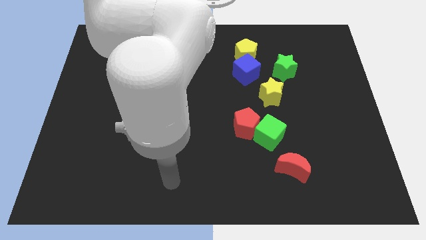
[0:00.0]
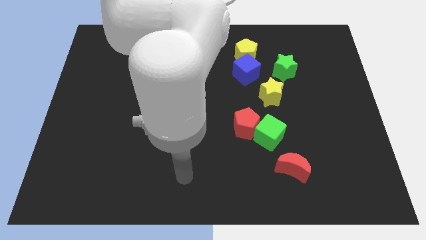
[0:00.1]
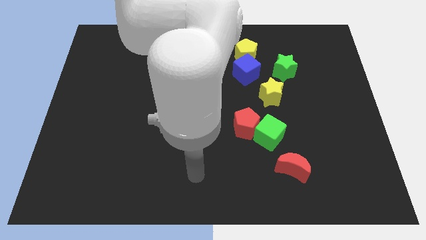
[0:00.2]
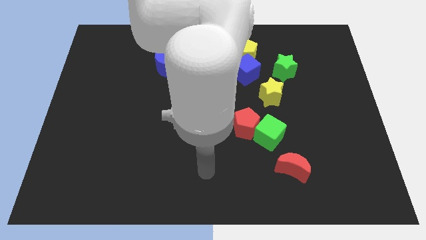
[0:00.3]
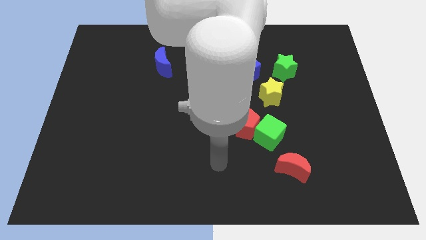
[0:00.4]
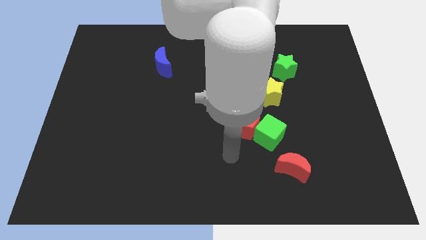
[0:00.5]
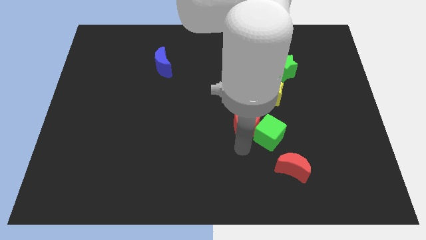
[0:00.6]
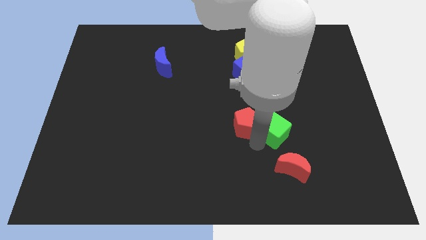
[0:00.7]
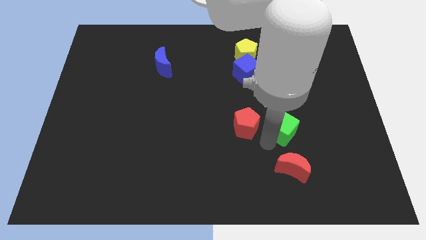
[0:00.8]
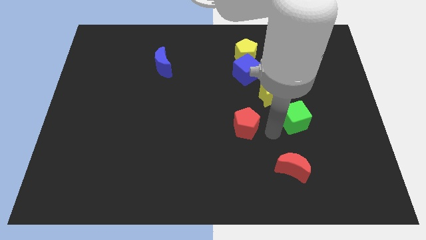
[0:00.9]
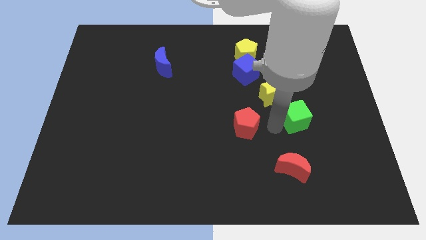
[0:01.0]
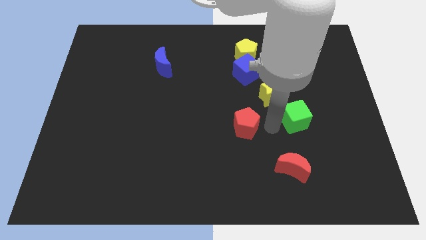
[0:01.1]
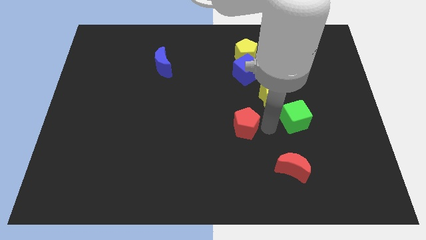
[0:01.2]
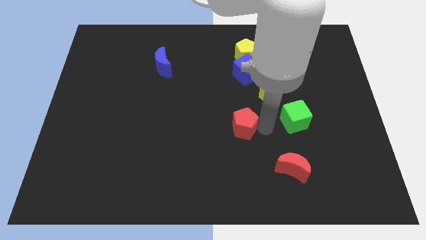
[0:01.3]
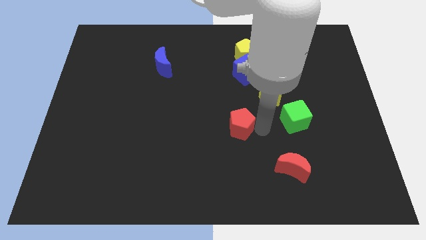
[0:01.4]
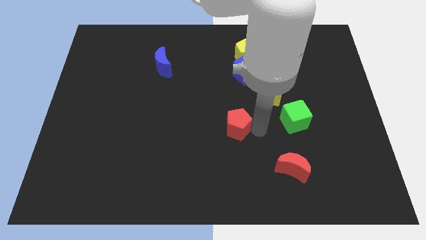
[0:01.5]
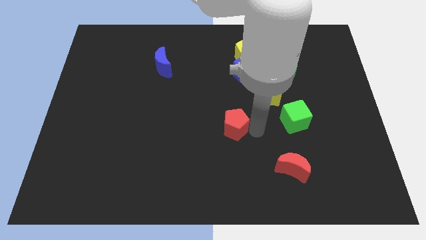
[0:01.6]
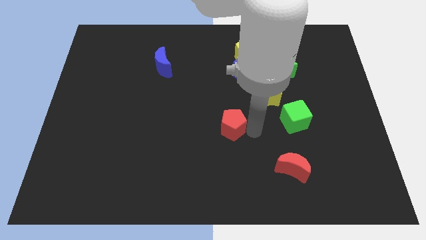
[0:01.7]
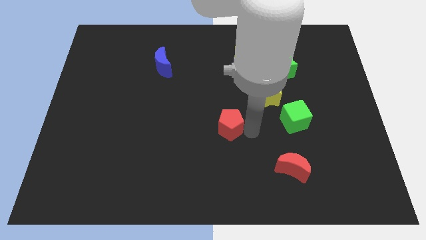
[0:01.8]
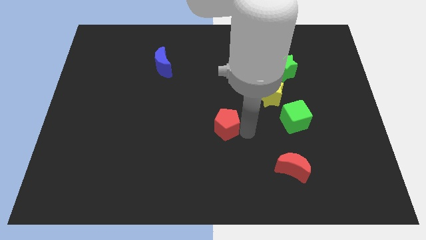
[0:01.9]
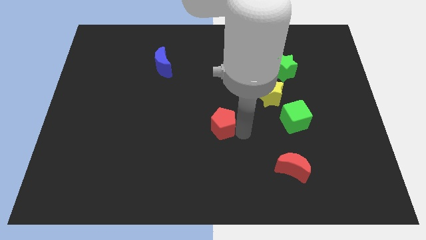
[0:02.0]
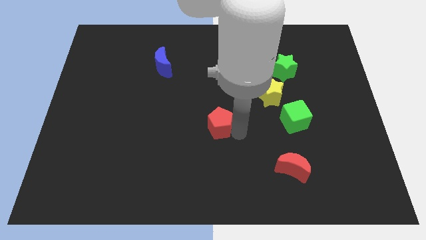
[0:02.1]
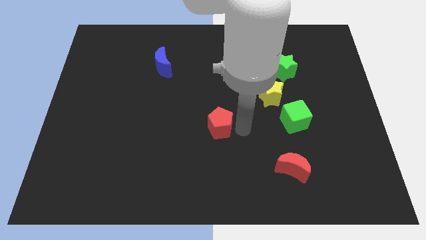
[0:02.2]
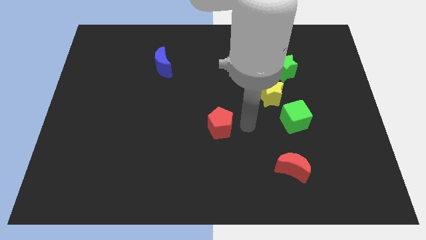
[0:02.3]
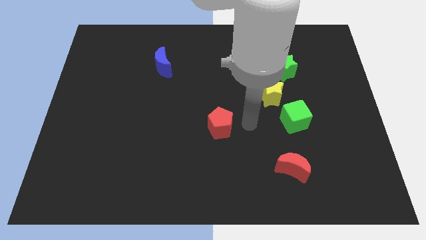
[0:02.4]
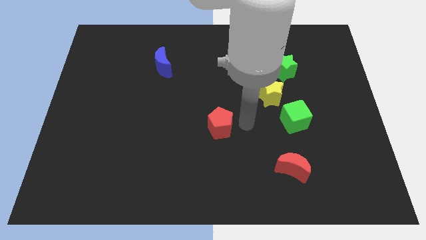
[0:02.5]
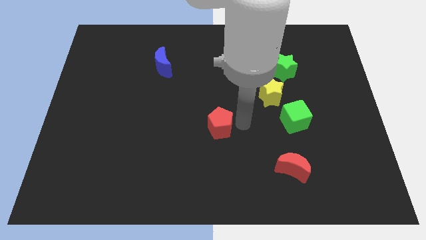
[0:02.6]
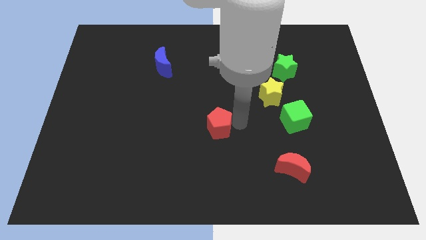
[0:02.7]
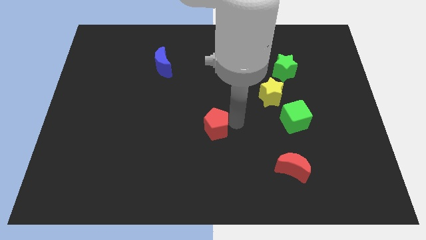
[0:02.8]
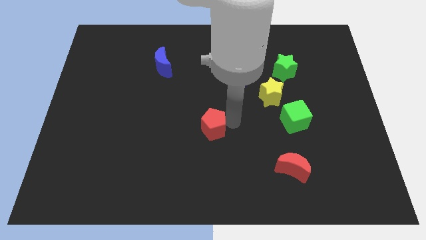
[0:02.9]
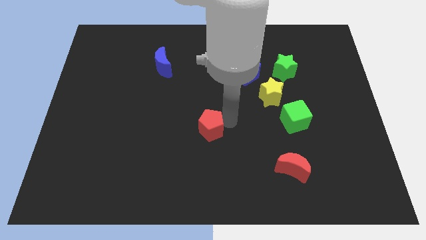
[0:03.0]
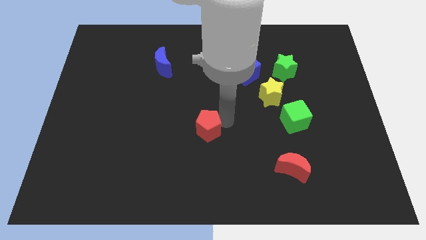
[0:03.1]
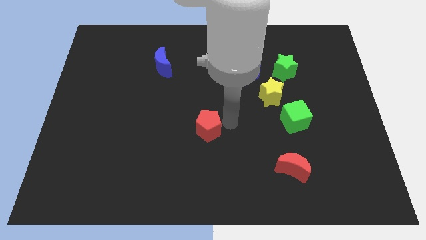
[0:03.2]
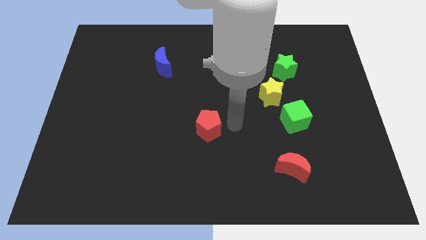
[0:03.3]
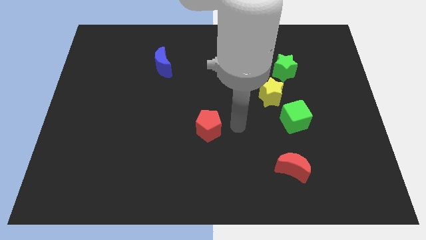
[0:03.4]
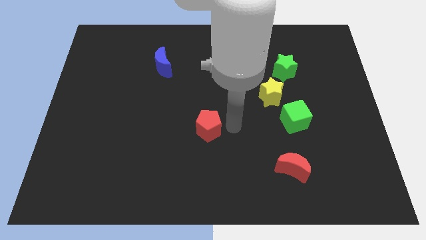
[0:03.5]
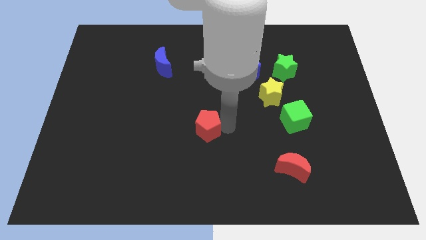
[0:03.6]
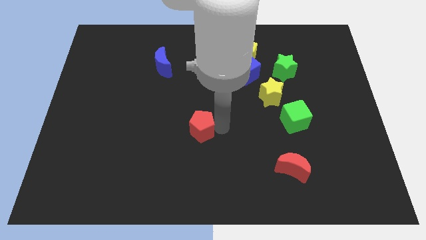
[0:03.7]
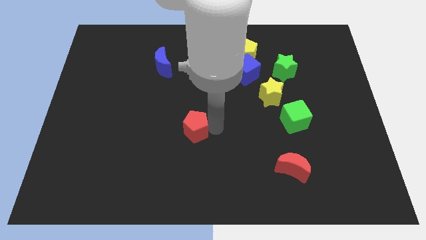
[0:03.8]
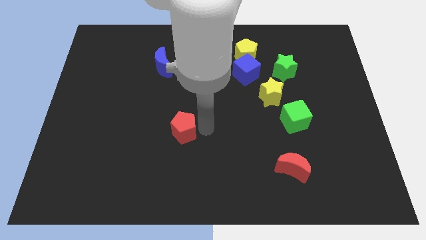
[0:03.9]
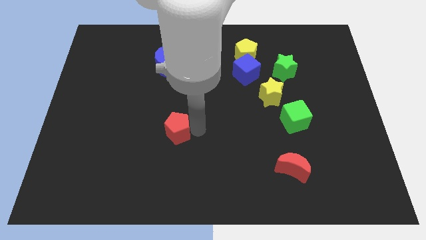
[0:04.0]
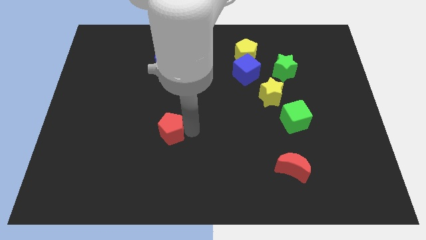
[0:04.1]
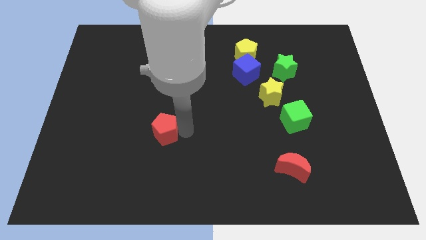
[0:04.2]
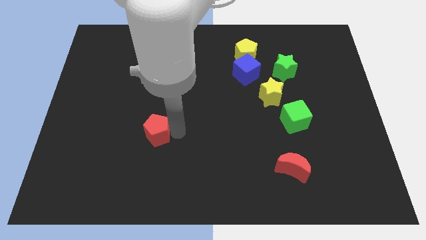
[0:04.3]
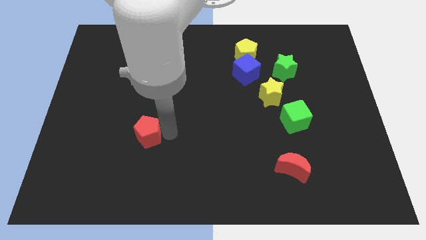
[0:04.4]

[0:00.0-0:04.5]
push the red pentagon to the left

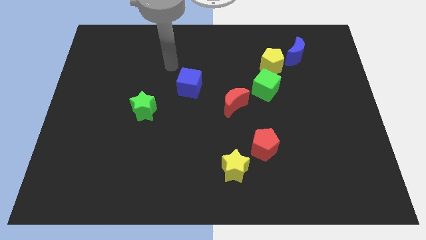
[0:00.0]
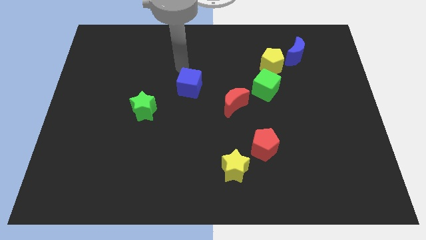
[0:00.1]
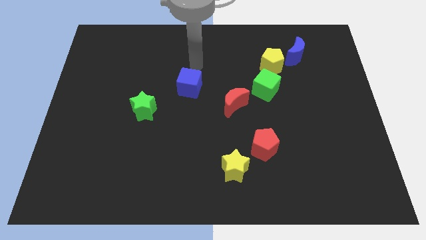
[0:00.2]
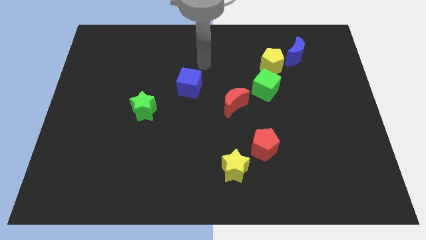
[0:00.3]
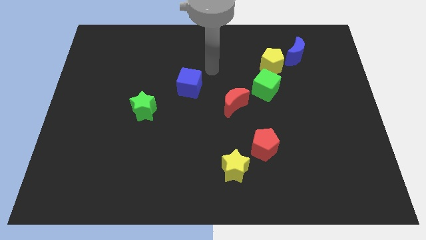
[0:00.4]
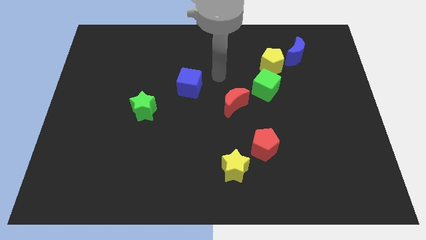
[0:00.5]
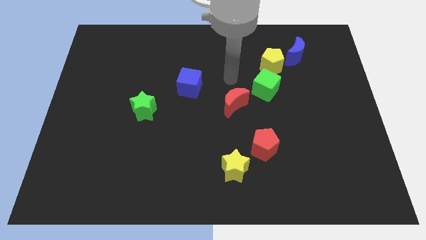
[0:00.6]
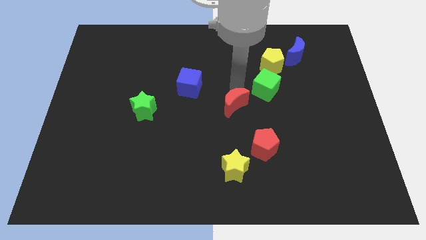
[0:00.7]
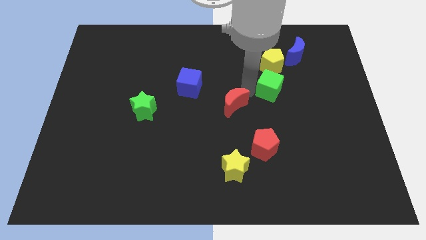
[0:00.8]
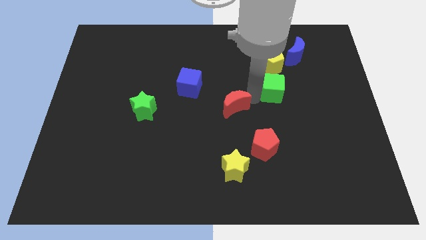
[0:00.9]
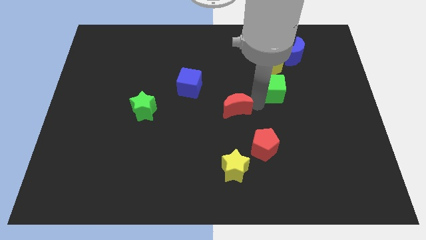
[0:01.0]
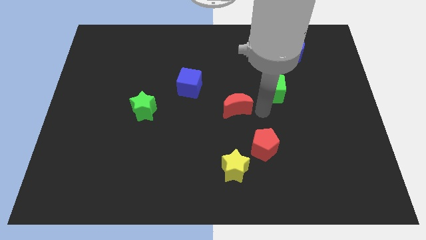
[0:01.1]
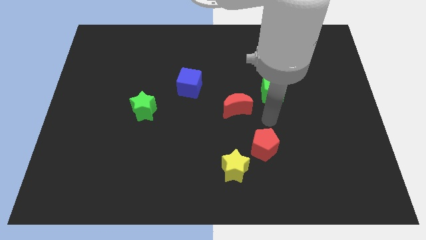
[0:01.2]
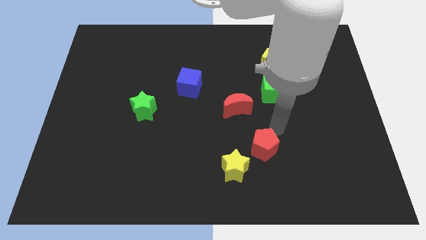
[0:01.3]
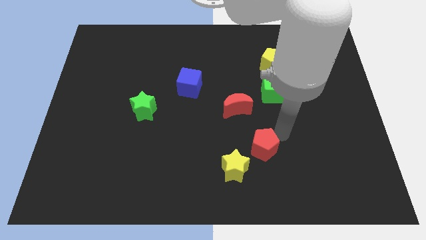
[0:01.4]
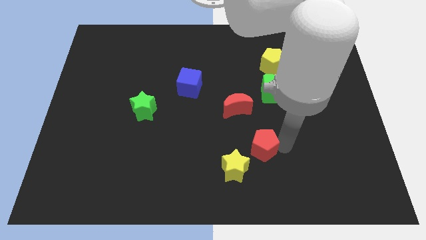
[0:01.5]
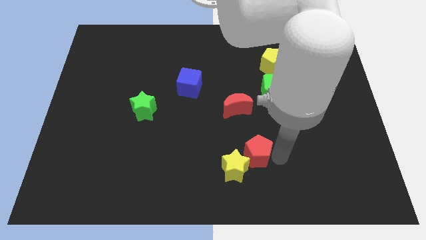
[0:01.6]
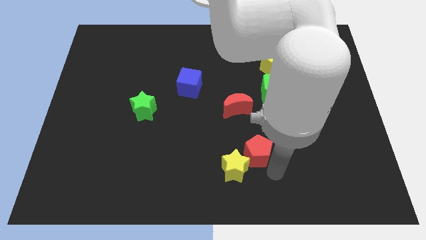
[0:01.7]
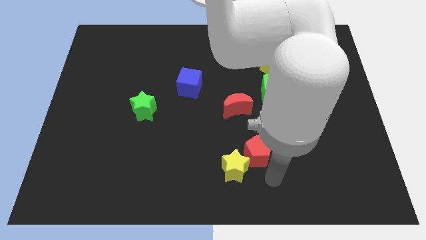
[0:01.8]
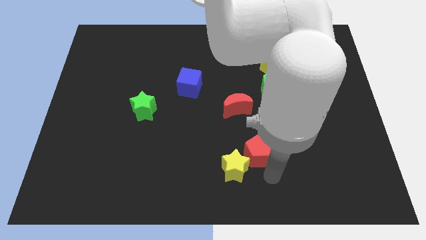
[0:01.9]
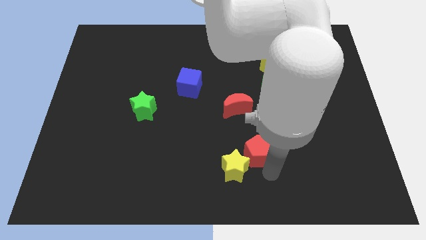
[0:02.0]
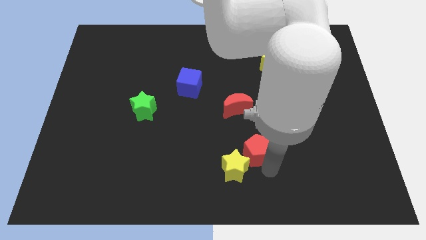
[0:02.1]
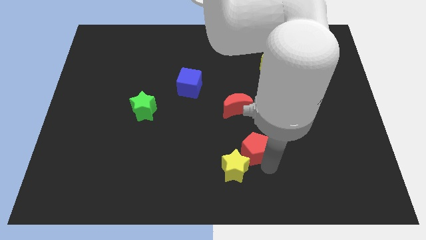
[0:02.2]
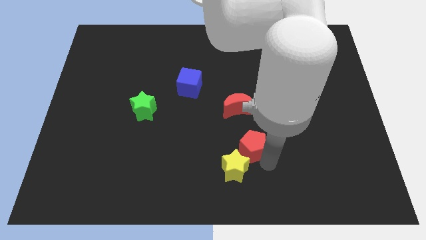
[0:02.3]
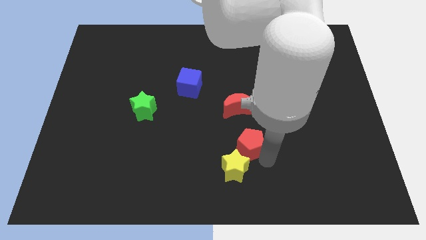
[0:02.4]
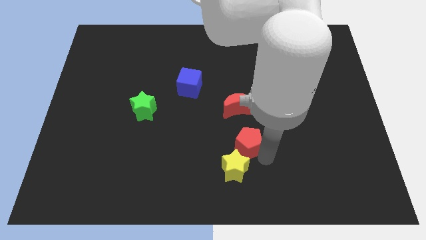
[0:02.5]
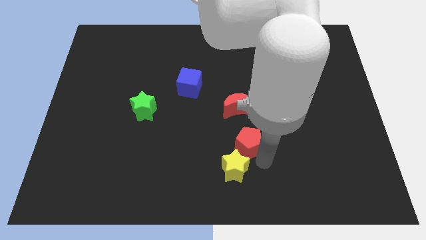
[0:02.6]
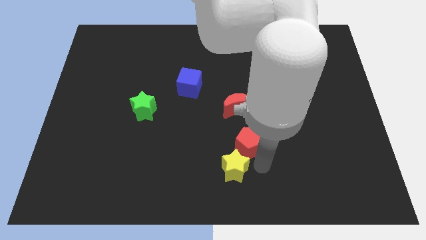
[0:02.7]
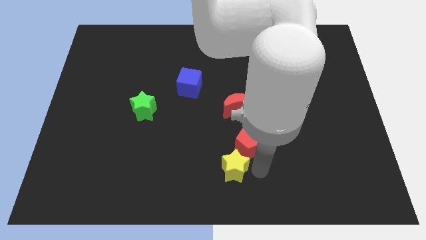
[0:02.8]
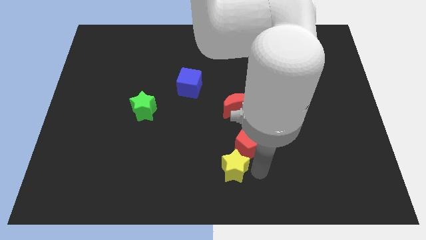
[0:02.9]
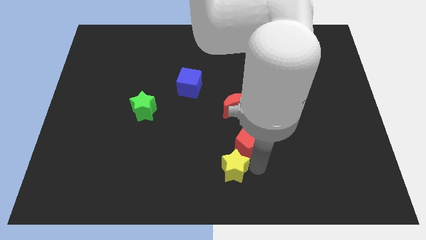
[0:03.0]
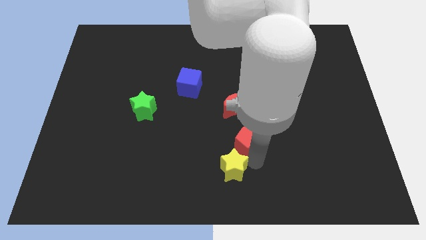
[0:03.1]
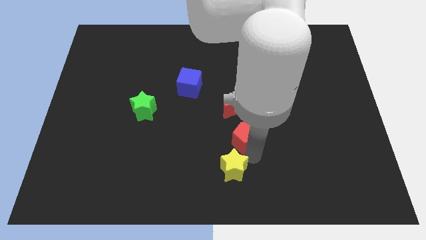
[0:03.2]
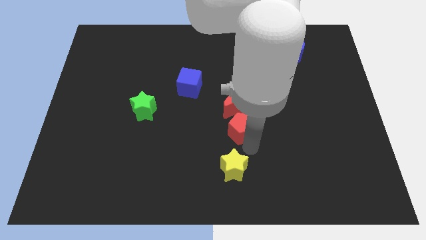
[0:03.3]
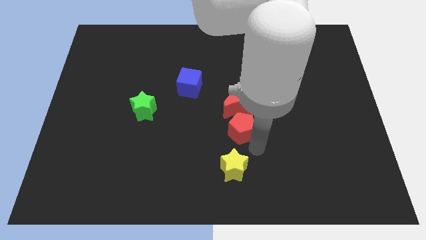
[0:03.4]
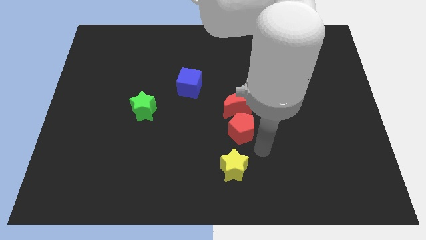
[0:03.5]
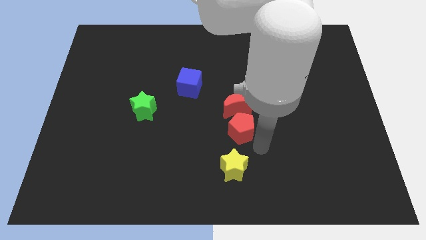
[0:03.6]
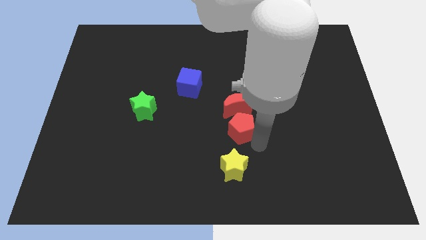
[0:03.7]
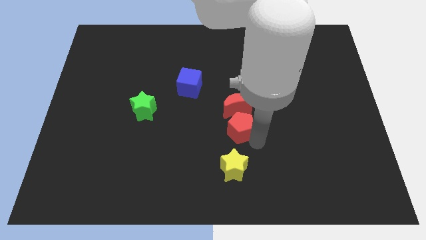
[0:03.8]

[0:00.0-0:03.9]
move the red pentagon somewhat upwards and to the left diagonally
